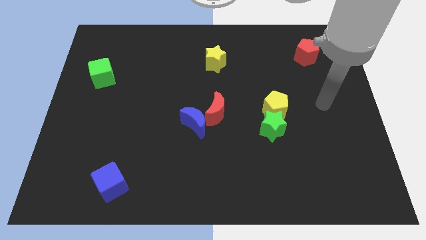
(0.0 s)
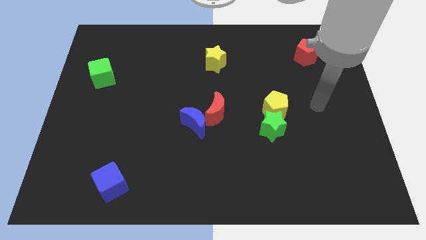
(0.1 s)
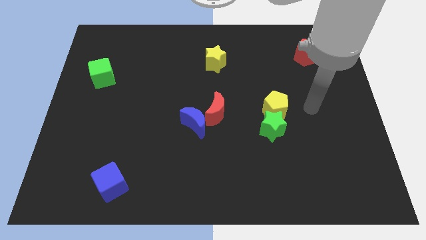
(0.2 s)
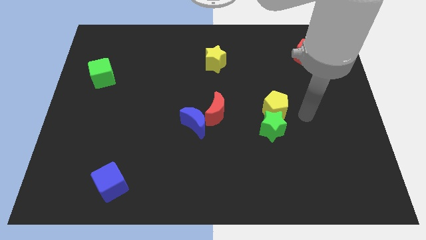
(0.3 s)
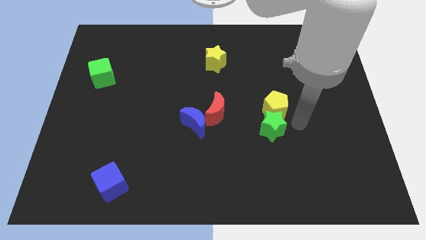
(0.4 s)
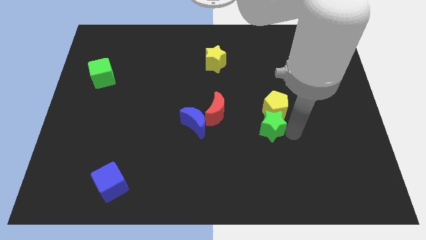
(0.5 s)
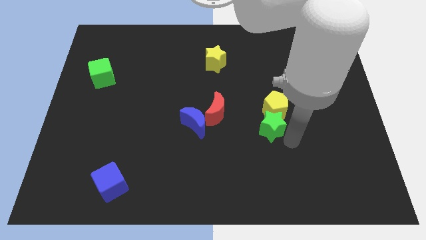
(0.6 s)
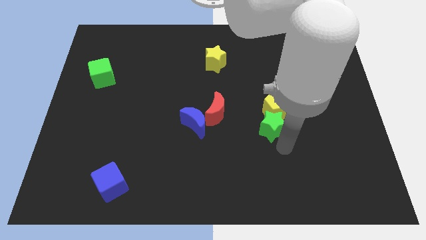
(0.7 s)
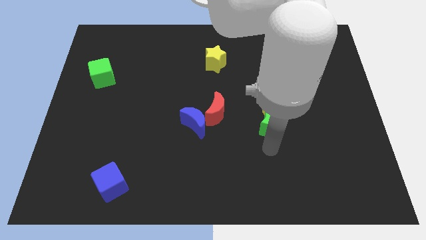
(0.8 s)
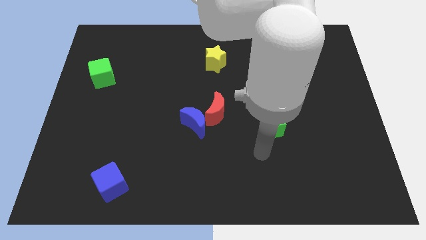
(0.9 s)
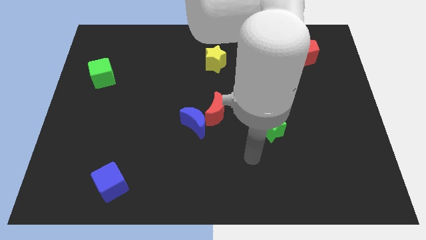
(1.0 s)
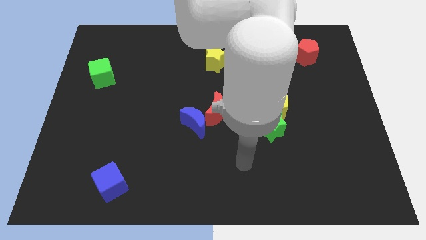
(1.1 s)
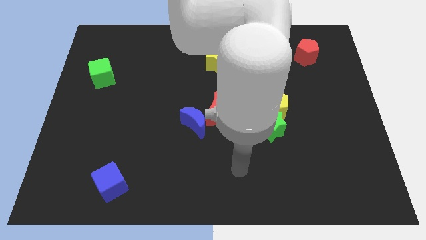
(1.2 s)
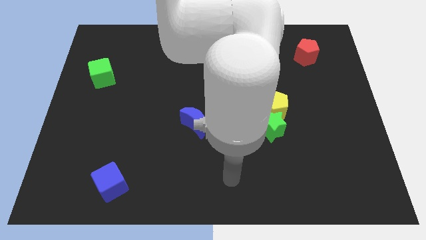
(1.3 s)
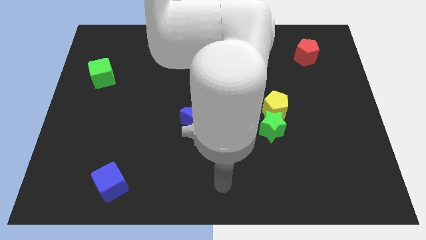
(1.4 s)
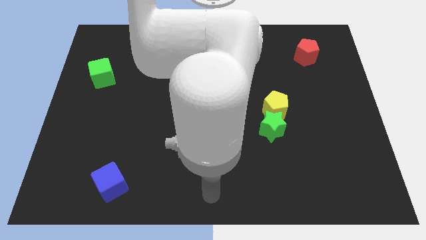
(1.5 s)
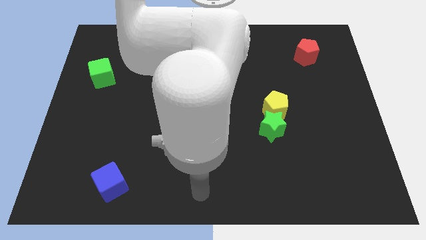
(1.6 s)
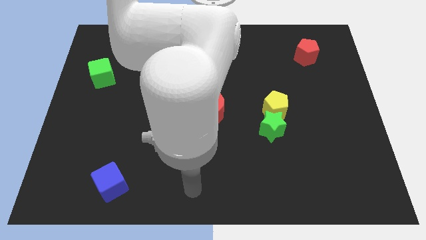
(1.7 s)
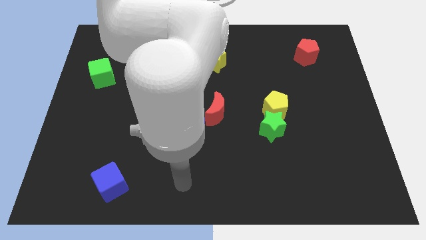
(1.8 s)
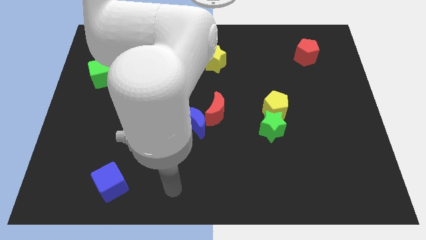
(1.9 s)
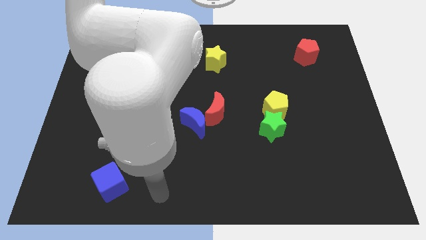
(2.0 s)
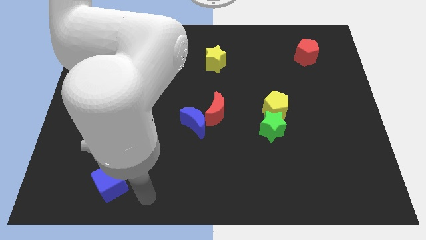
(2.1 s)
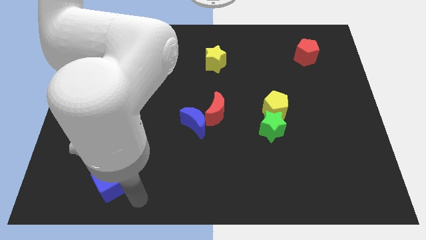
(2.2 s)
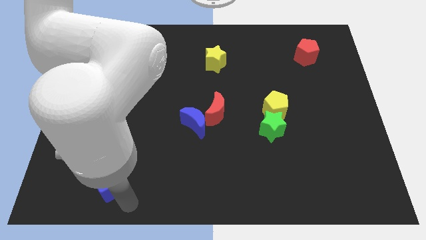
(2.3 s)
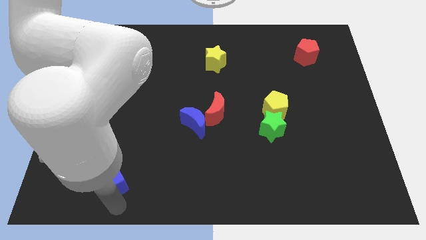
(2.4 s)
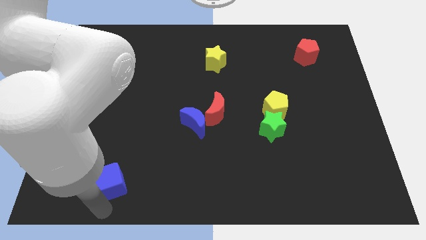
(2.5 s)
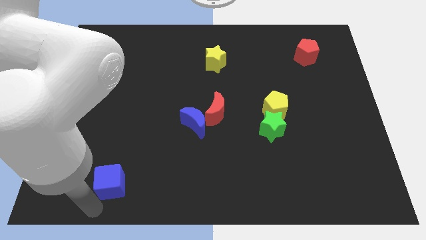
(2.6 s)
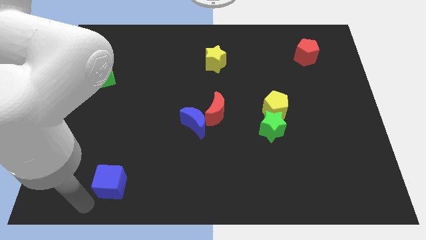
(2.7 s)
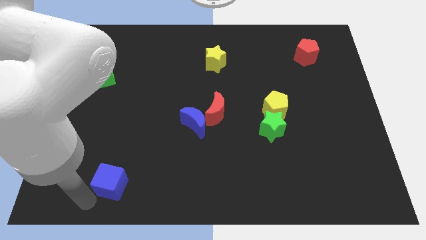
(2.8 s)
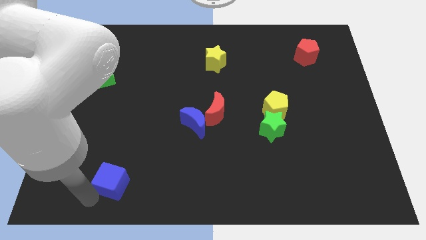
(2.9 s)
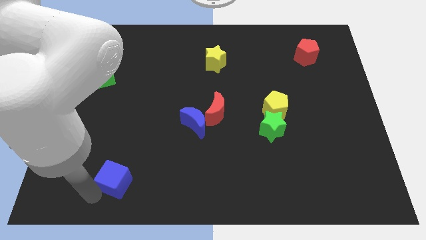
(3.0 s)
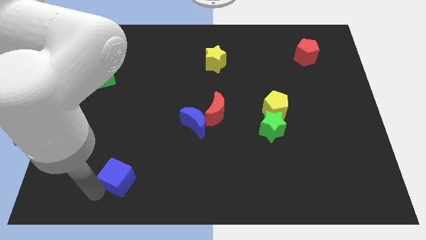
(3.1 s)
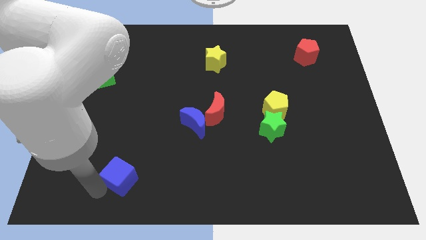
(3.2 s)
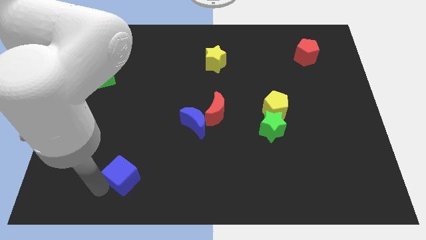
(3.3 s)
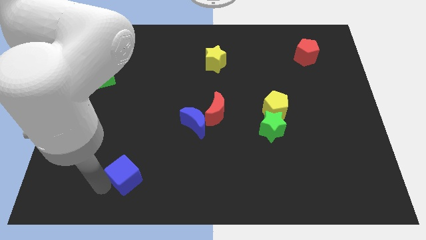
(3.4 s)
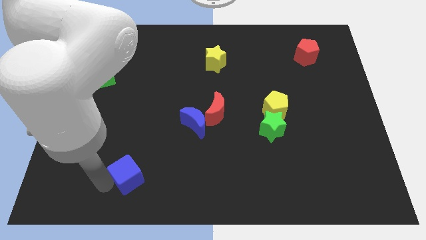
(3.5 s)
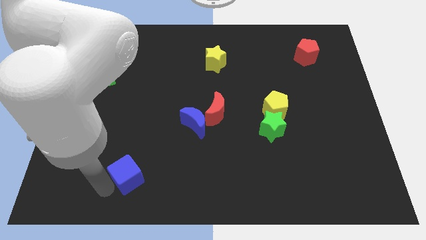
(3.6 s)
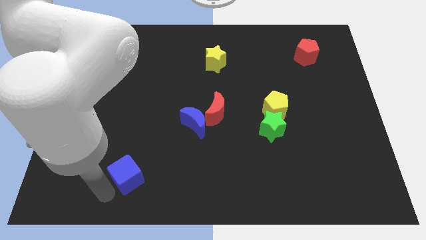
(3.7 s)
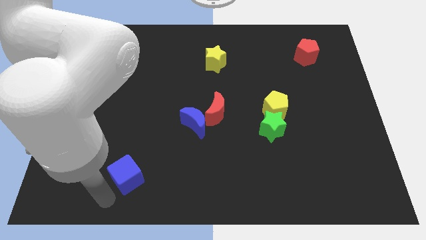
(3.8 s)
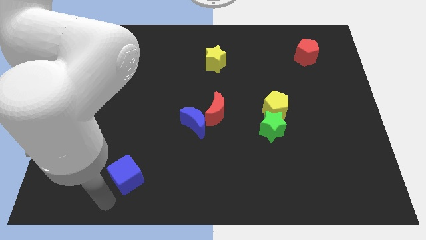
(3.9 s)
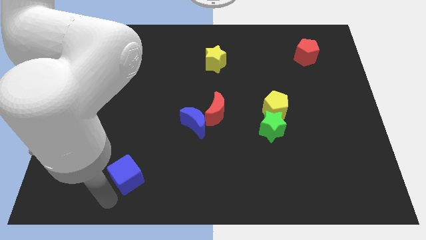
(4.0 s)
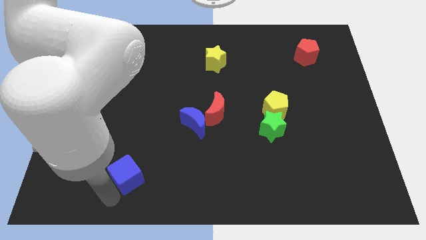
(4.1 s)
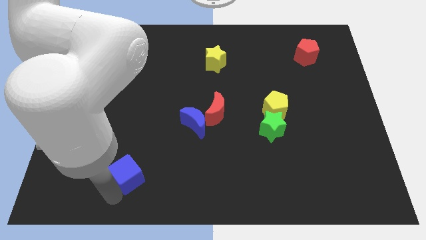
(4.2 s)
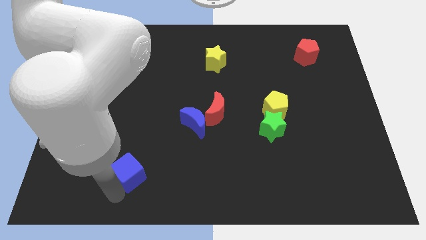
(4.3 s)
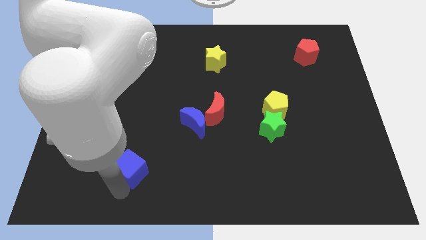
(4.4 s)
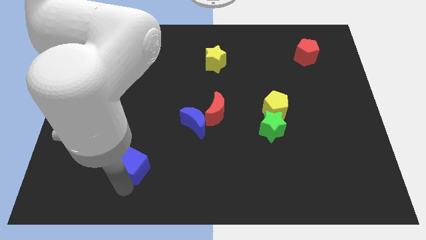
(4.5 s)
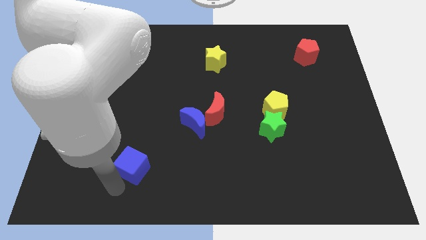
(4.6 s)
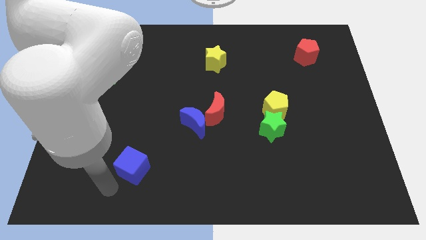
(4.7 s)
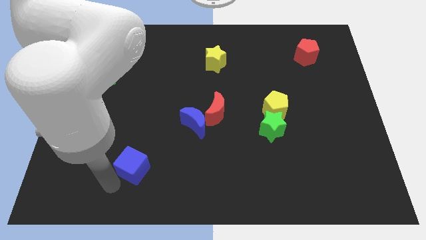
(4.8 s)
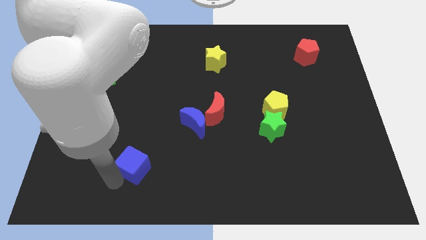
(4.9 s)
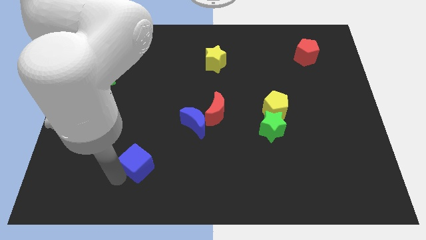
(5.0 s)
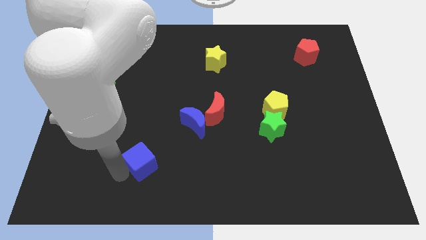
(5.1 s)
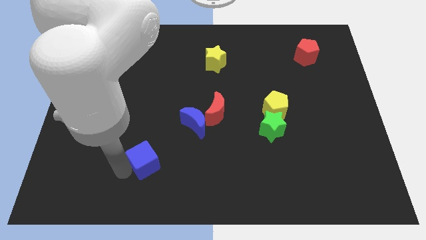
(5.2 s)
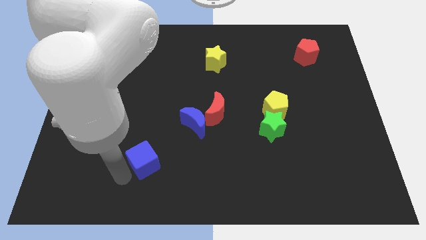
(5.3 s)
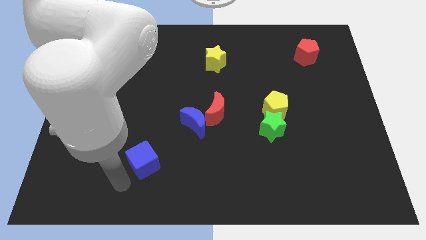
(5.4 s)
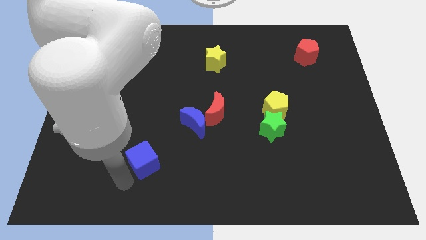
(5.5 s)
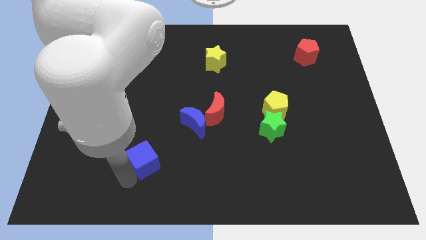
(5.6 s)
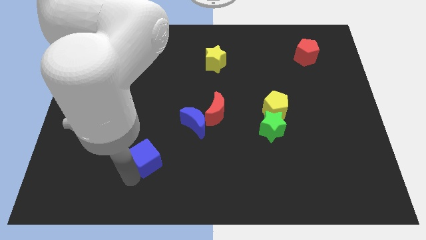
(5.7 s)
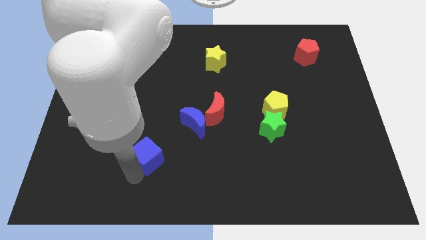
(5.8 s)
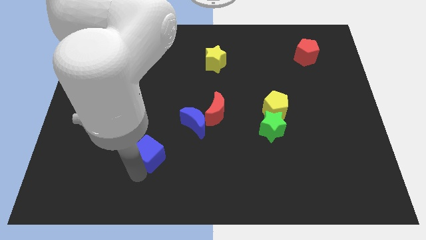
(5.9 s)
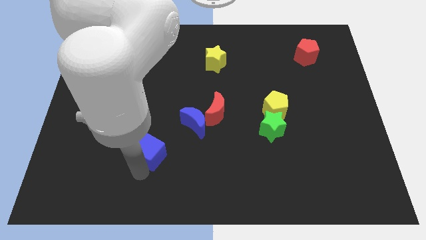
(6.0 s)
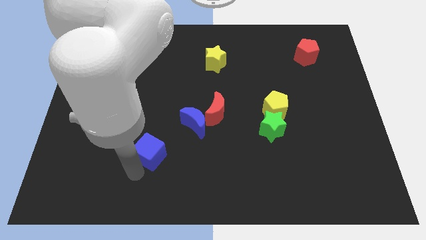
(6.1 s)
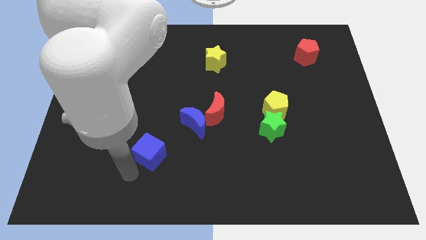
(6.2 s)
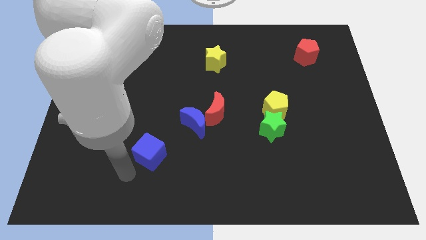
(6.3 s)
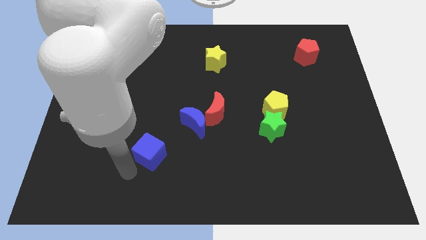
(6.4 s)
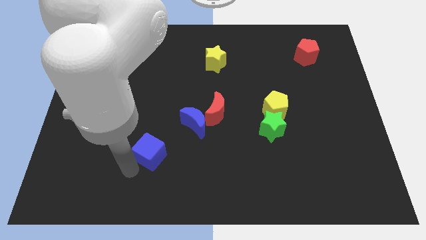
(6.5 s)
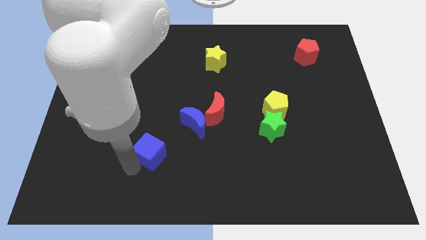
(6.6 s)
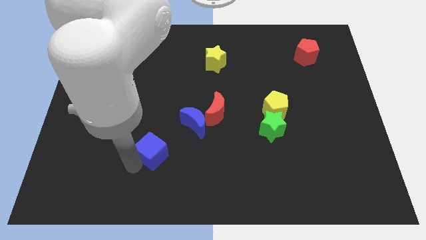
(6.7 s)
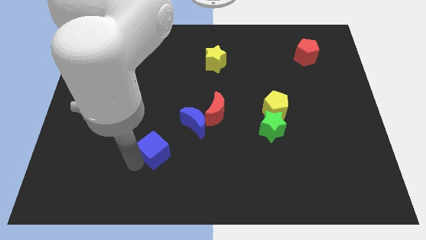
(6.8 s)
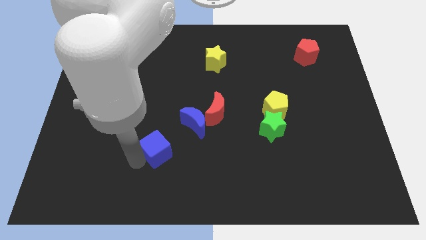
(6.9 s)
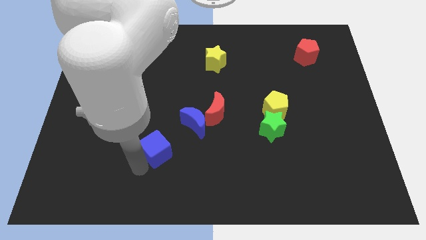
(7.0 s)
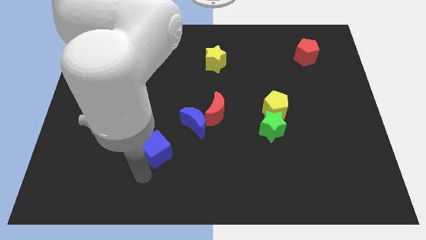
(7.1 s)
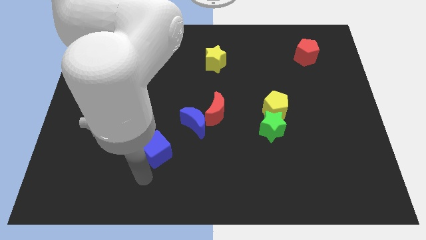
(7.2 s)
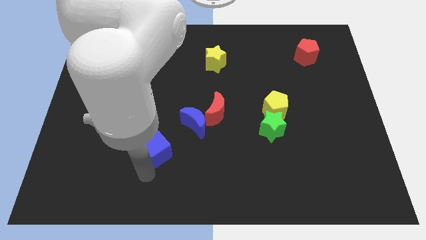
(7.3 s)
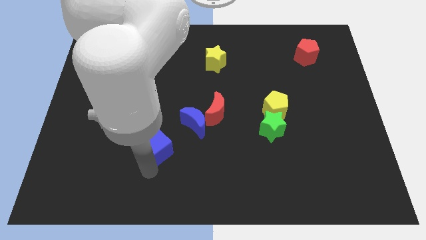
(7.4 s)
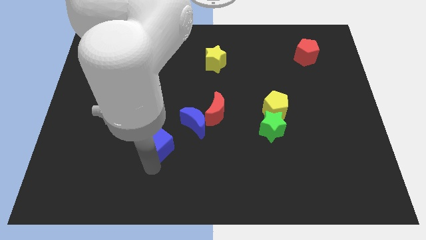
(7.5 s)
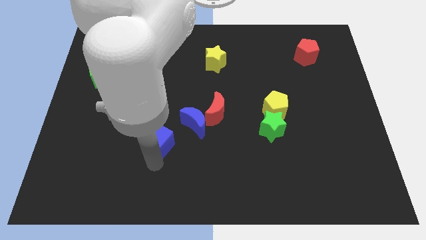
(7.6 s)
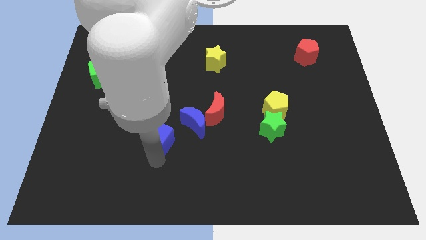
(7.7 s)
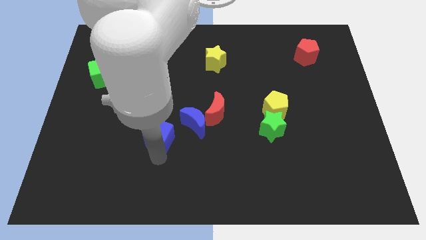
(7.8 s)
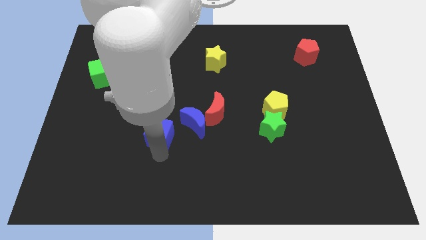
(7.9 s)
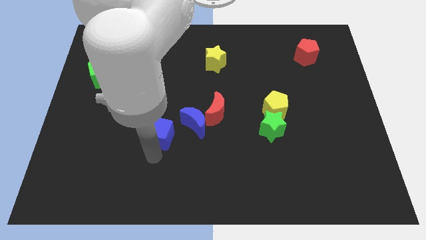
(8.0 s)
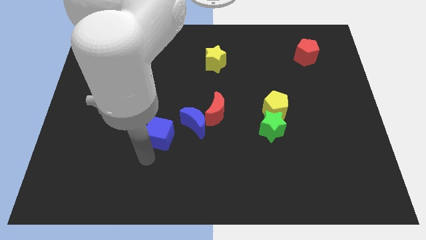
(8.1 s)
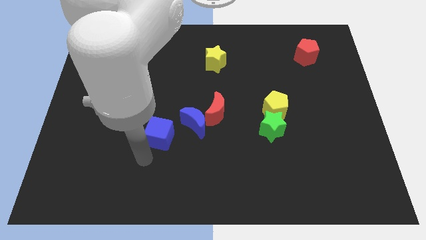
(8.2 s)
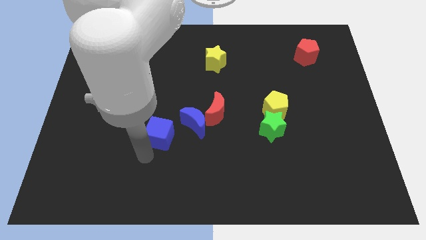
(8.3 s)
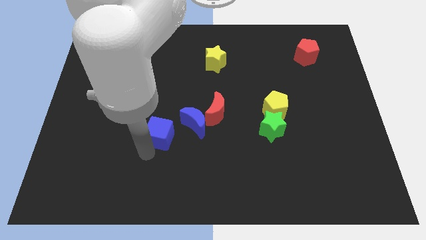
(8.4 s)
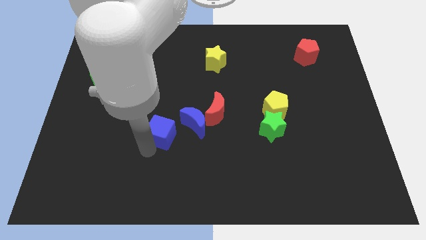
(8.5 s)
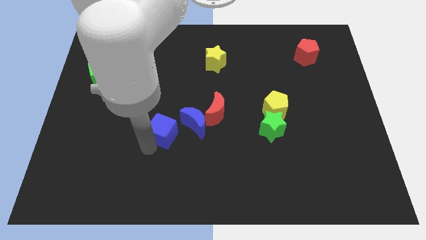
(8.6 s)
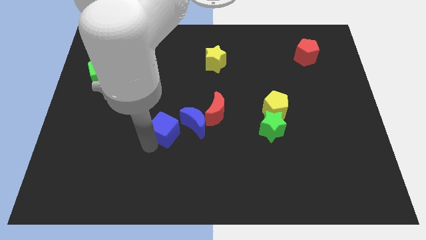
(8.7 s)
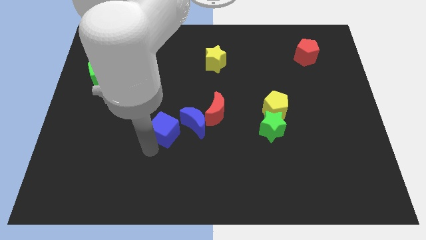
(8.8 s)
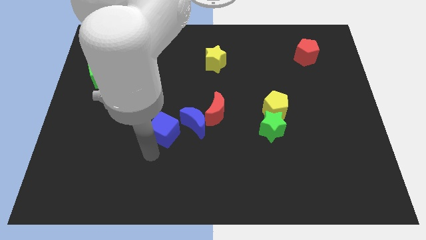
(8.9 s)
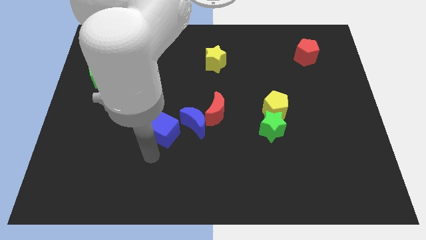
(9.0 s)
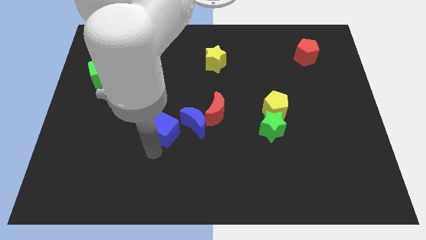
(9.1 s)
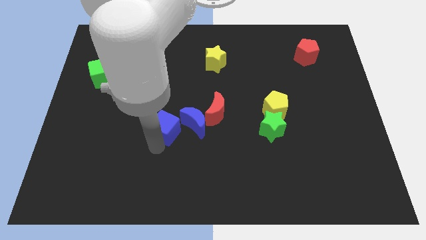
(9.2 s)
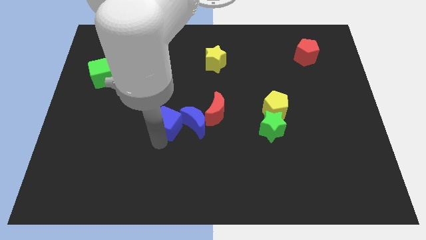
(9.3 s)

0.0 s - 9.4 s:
put the blue cube to the center
